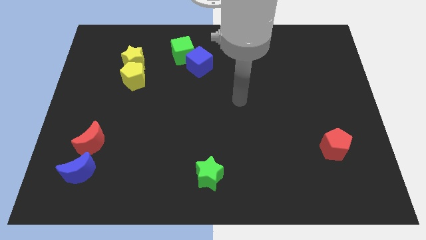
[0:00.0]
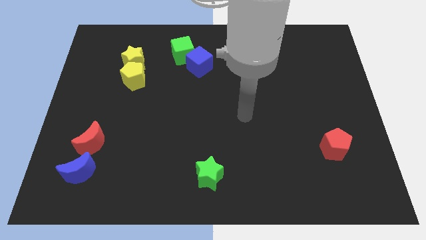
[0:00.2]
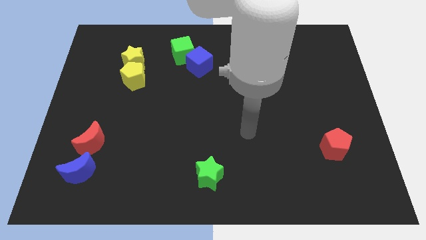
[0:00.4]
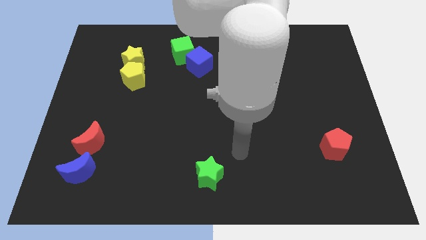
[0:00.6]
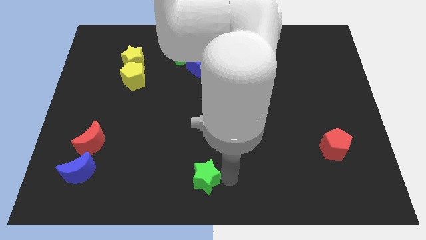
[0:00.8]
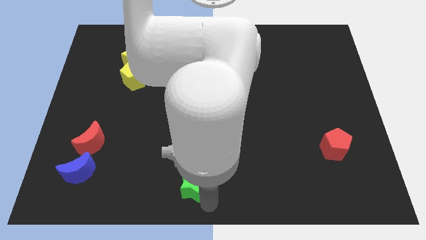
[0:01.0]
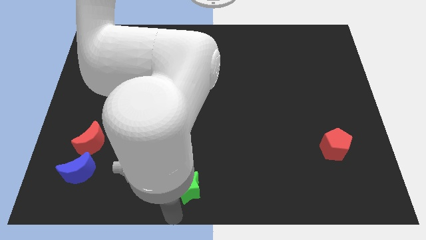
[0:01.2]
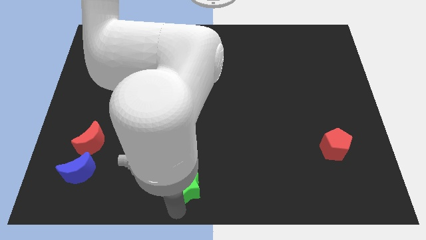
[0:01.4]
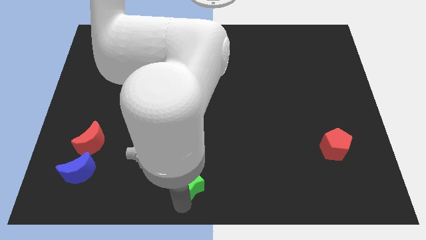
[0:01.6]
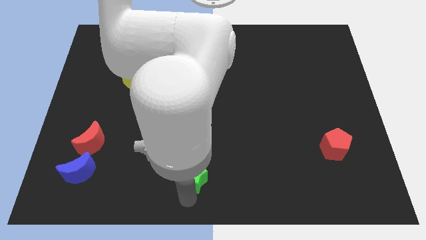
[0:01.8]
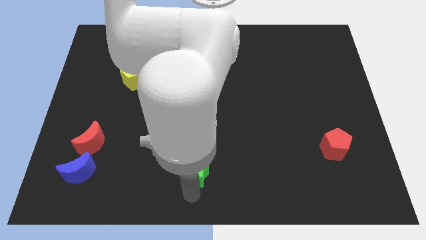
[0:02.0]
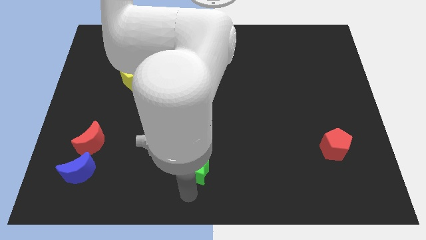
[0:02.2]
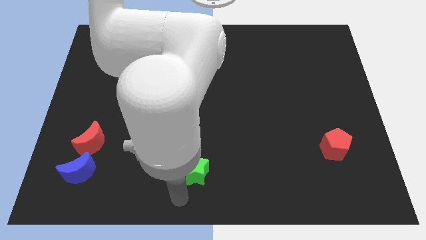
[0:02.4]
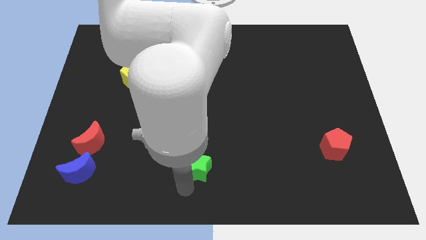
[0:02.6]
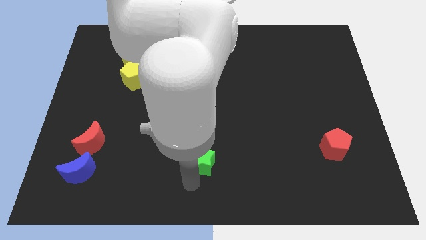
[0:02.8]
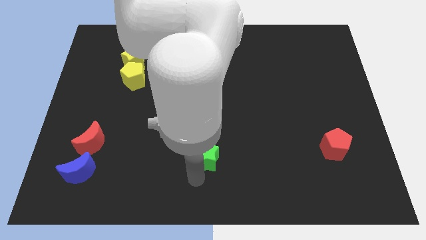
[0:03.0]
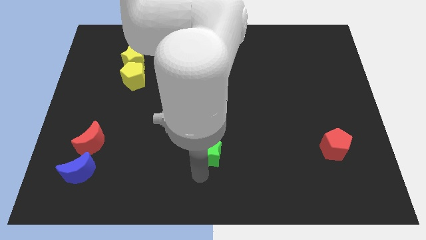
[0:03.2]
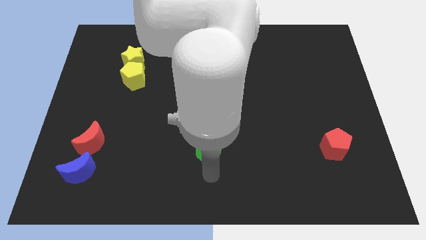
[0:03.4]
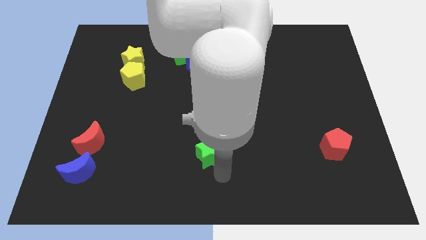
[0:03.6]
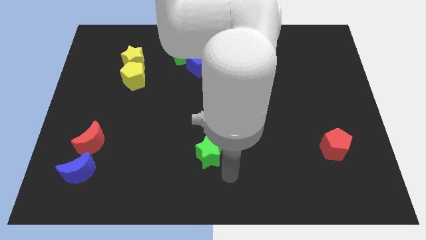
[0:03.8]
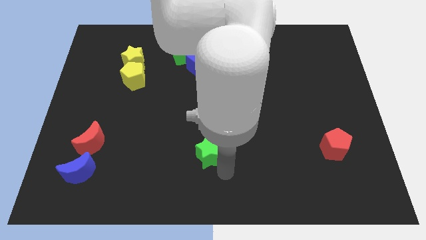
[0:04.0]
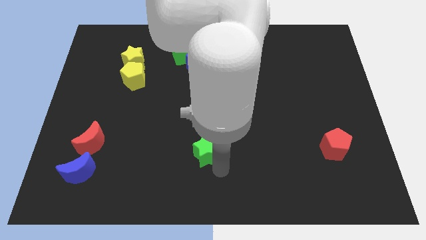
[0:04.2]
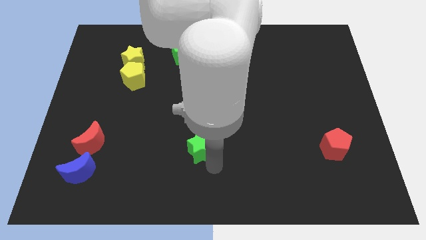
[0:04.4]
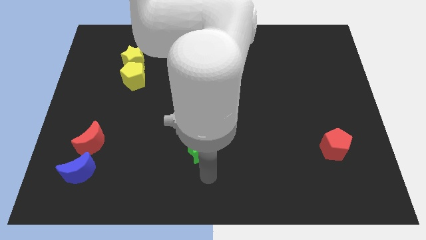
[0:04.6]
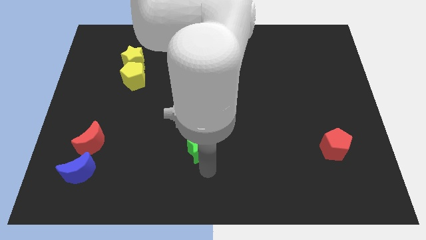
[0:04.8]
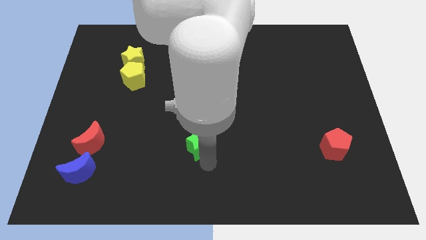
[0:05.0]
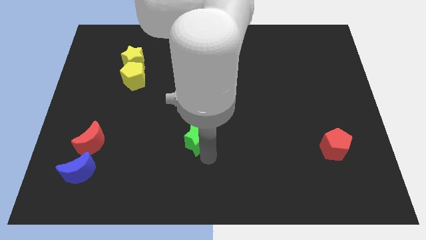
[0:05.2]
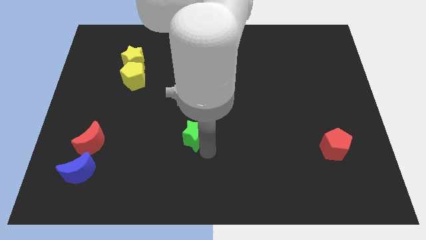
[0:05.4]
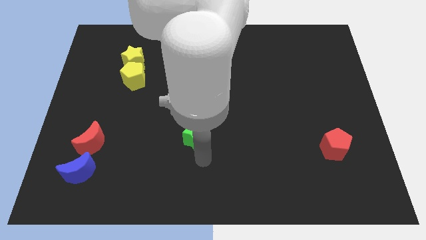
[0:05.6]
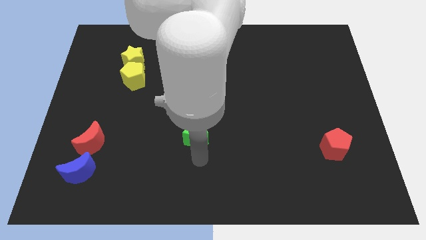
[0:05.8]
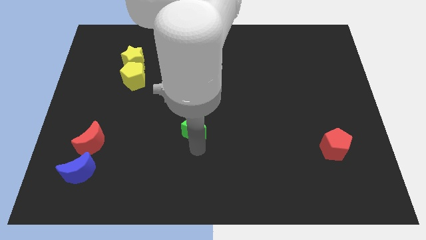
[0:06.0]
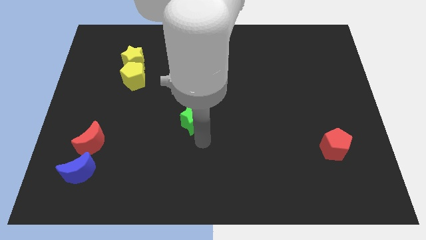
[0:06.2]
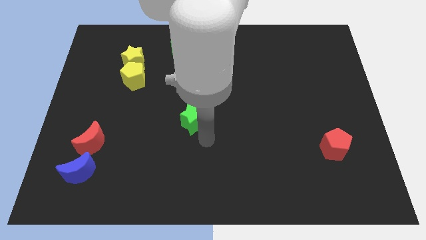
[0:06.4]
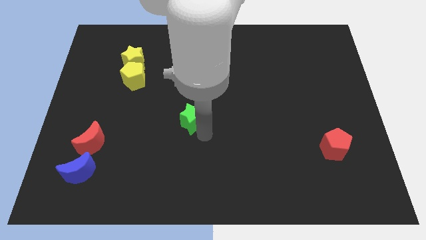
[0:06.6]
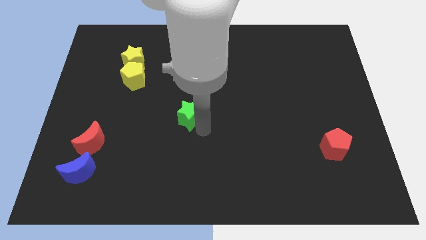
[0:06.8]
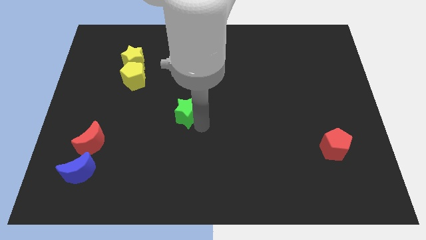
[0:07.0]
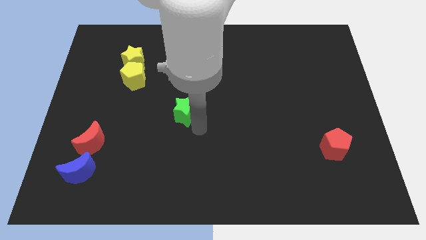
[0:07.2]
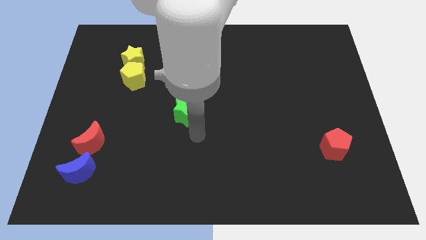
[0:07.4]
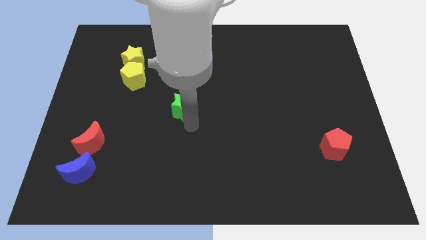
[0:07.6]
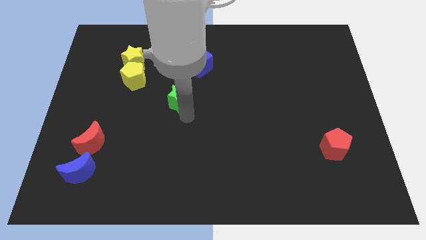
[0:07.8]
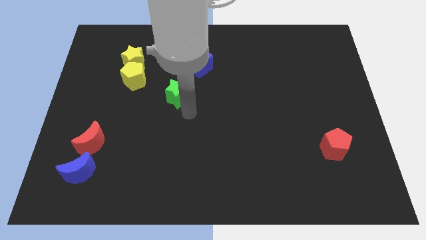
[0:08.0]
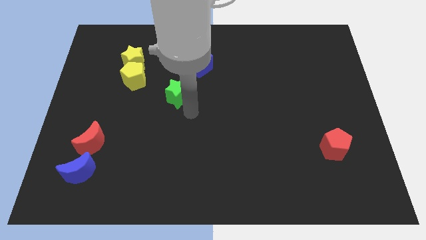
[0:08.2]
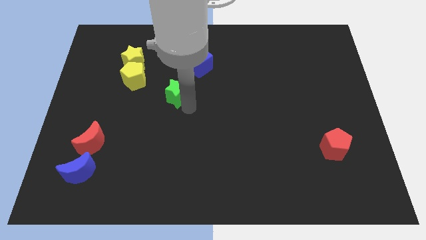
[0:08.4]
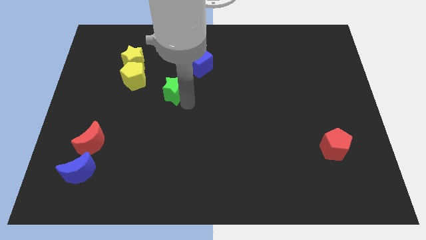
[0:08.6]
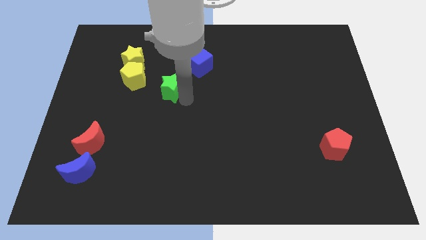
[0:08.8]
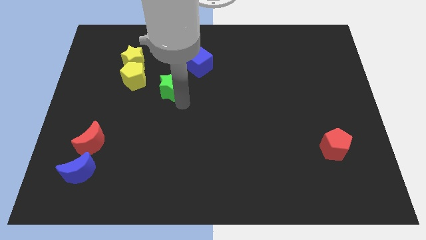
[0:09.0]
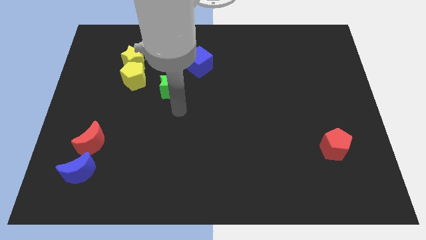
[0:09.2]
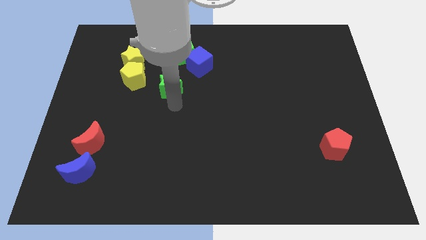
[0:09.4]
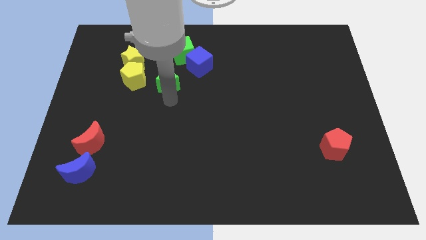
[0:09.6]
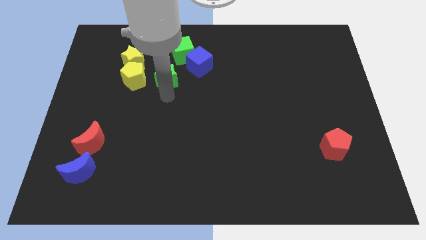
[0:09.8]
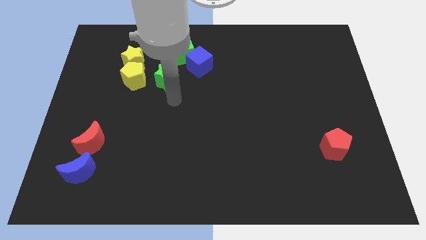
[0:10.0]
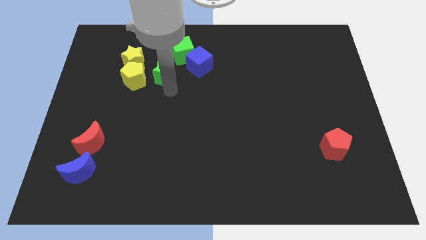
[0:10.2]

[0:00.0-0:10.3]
slide the green star to the left side of the blue cube
